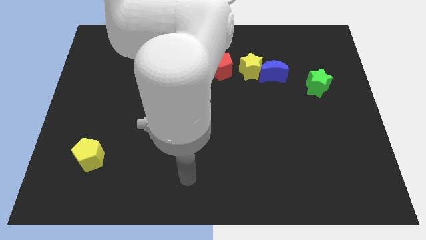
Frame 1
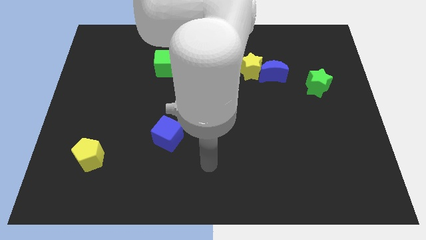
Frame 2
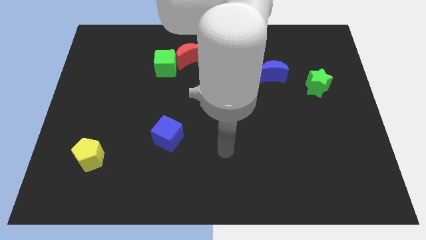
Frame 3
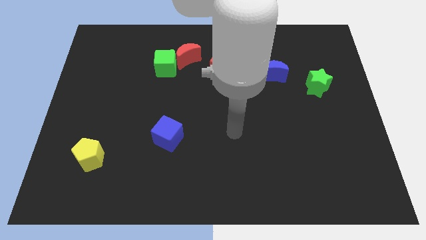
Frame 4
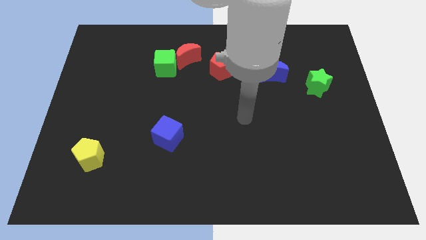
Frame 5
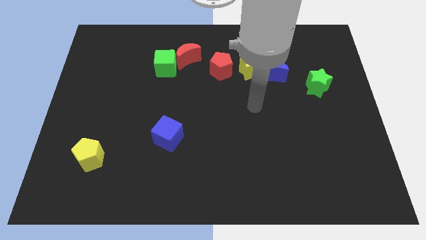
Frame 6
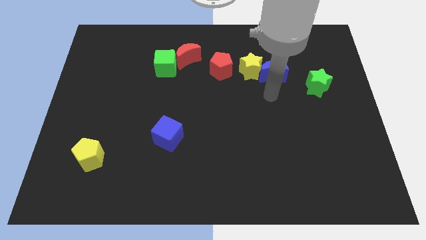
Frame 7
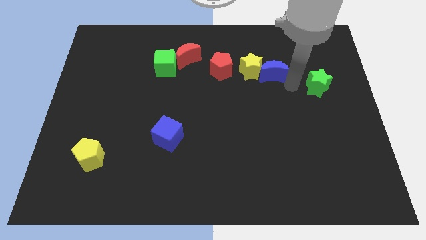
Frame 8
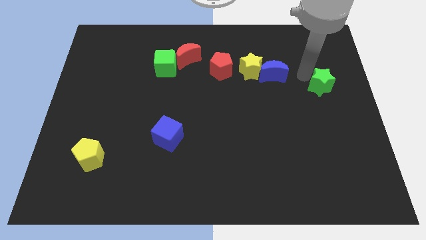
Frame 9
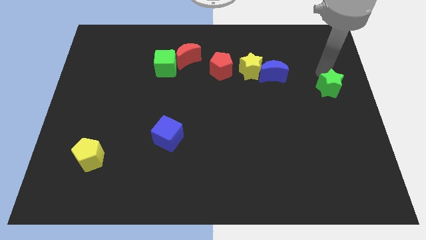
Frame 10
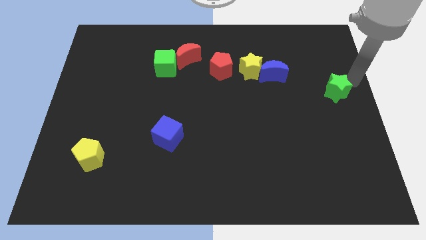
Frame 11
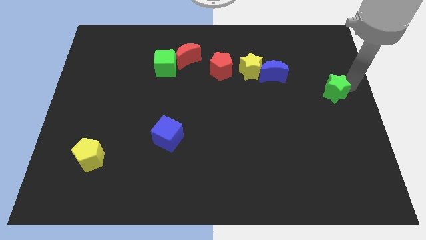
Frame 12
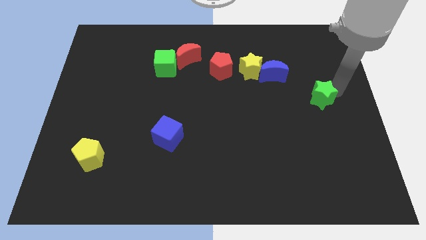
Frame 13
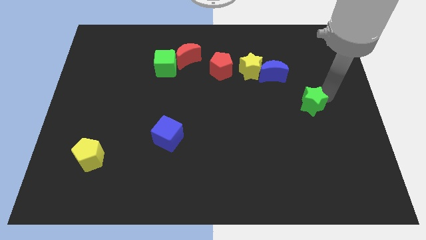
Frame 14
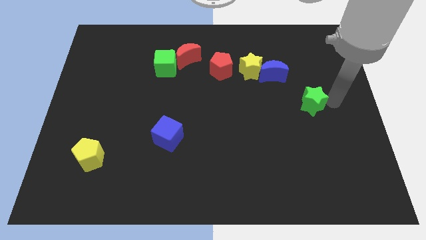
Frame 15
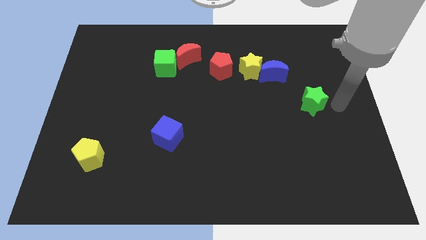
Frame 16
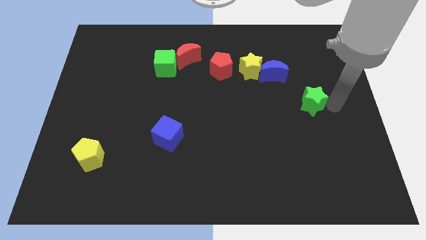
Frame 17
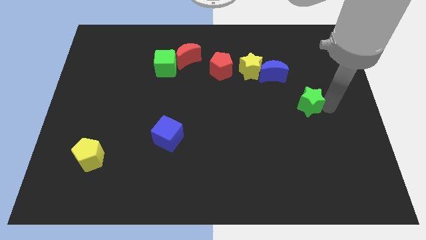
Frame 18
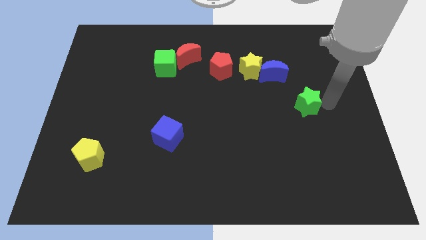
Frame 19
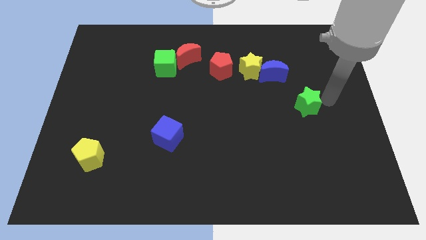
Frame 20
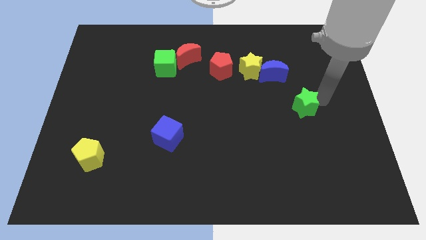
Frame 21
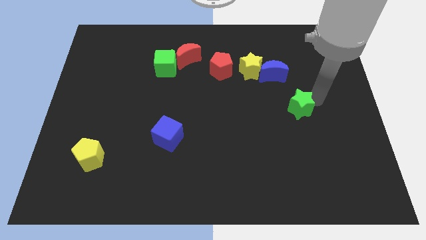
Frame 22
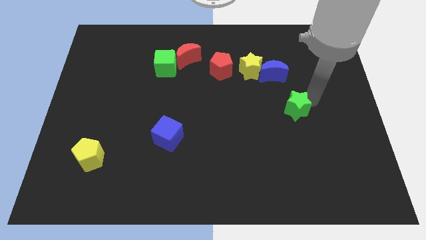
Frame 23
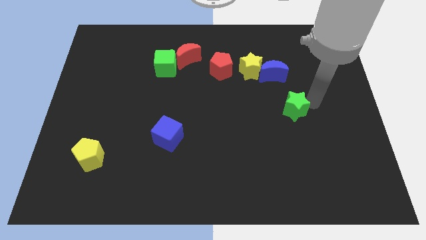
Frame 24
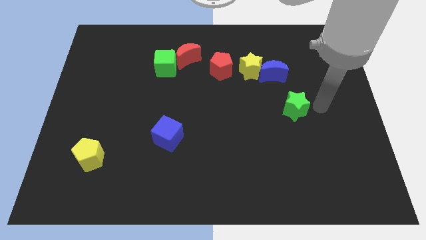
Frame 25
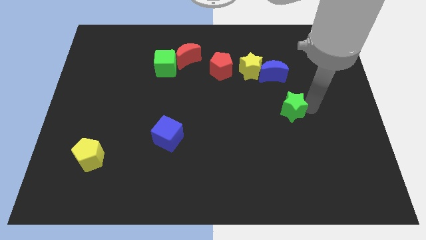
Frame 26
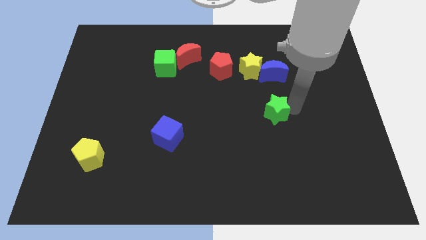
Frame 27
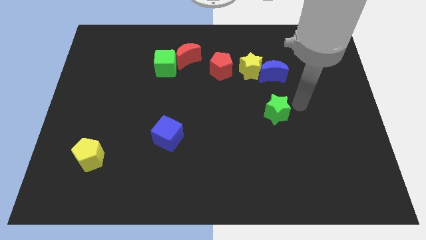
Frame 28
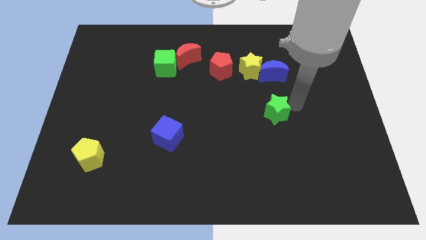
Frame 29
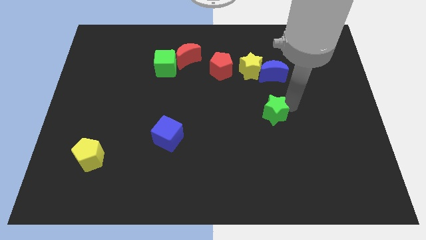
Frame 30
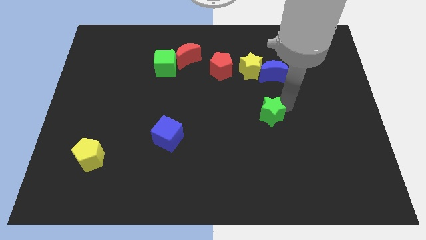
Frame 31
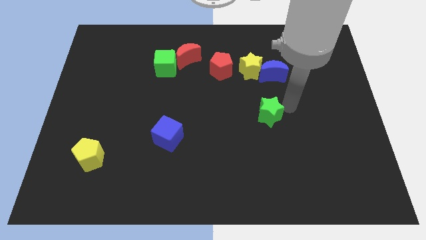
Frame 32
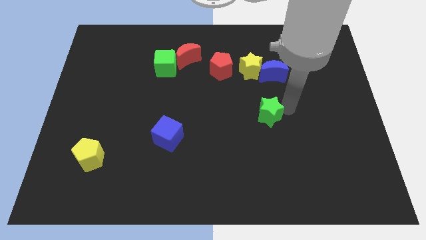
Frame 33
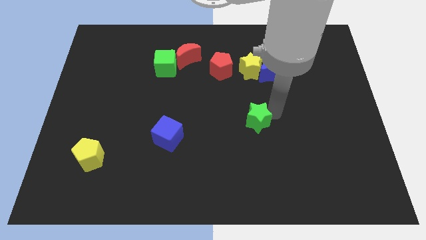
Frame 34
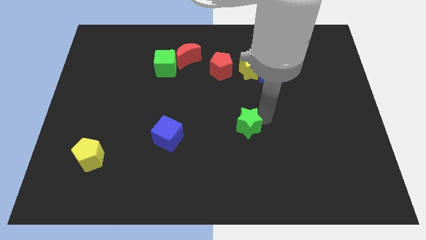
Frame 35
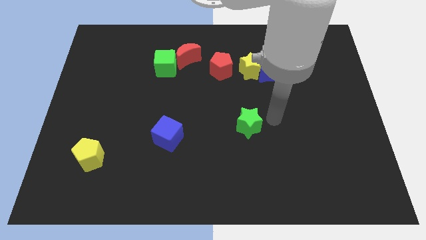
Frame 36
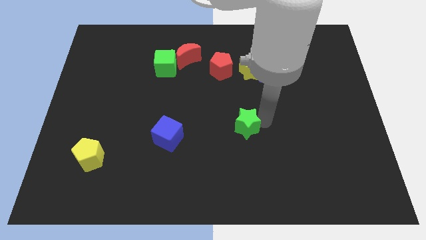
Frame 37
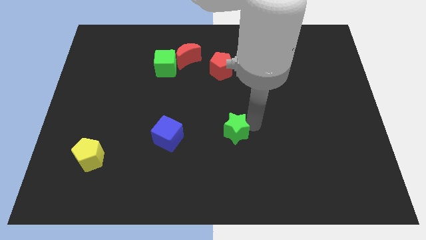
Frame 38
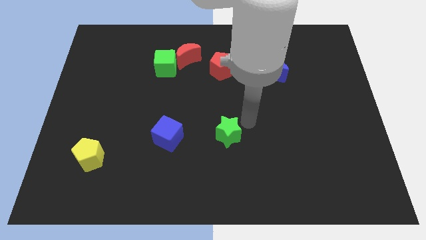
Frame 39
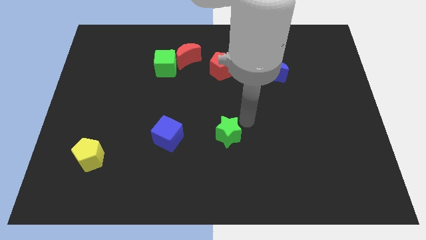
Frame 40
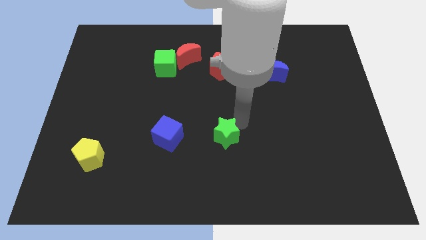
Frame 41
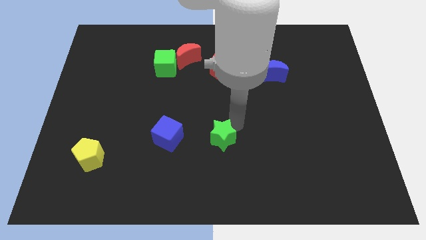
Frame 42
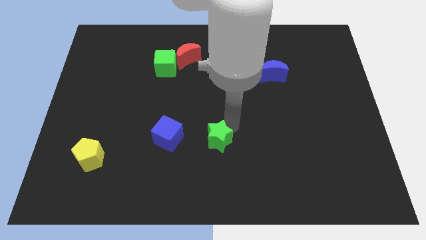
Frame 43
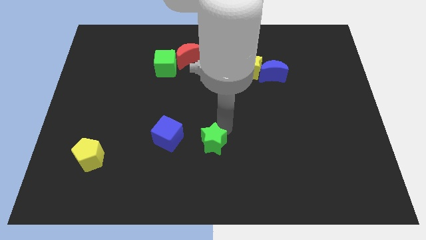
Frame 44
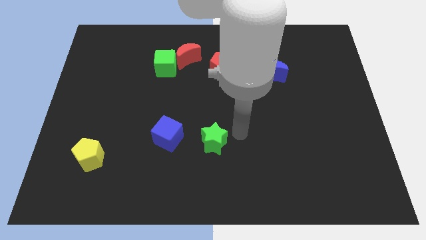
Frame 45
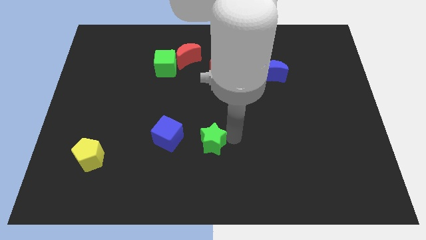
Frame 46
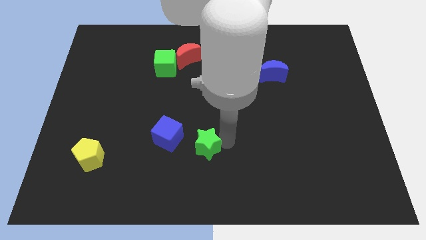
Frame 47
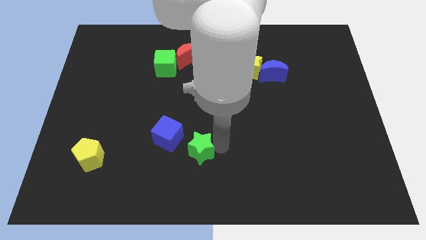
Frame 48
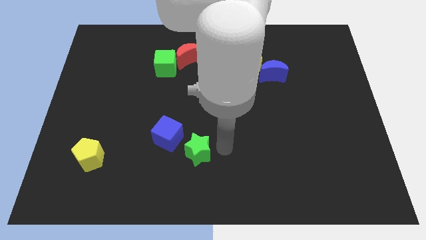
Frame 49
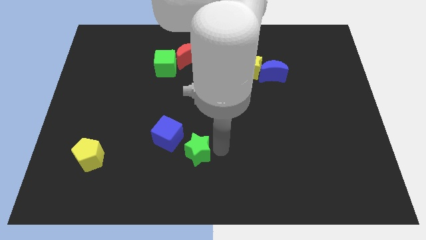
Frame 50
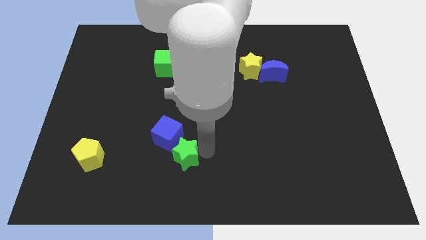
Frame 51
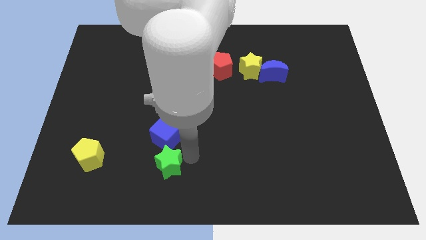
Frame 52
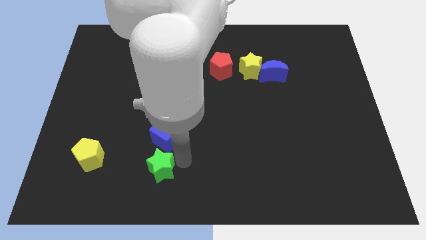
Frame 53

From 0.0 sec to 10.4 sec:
move the green star just right of the yellow pentagon

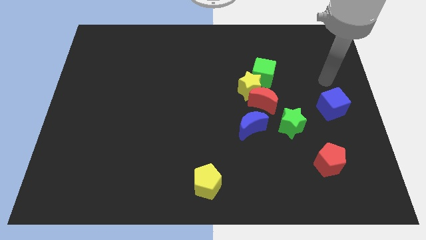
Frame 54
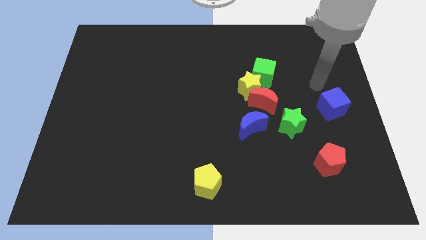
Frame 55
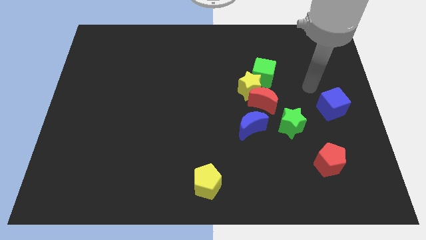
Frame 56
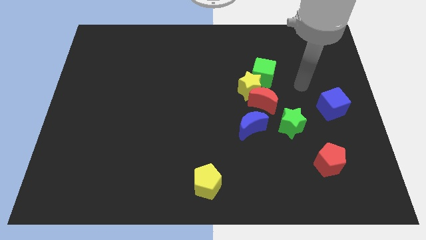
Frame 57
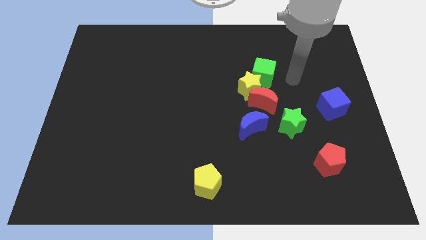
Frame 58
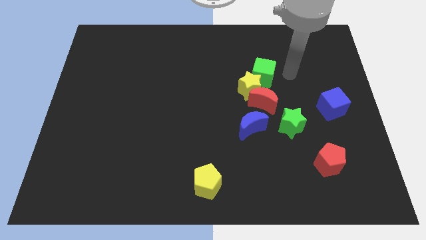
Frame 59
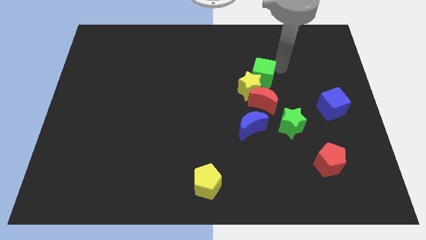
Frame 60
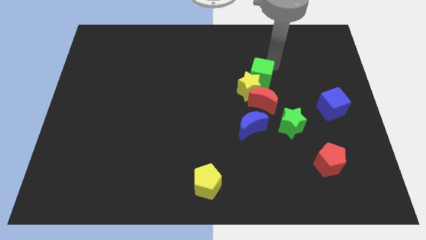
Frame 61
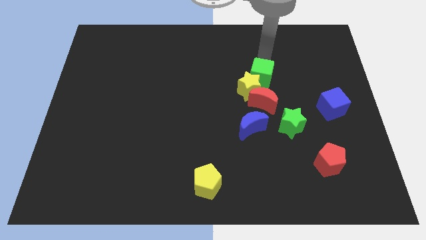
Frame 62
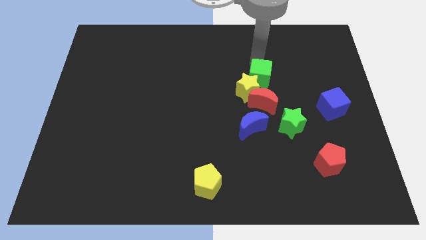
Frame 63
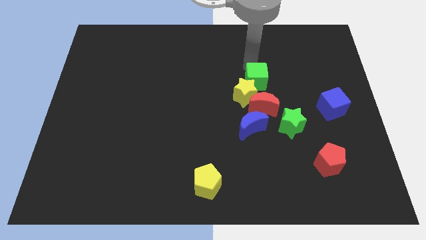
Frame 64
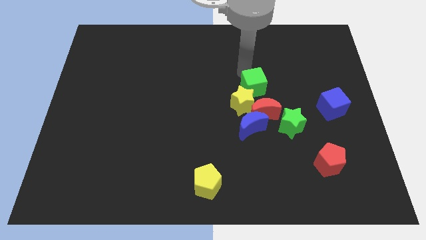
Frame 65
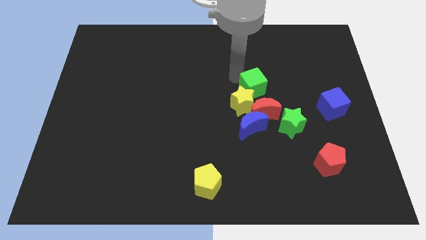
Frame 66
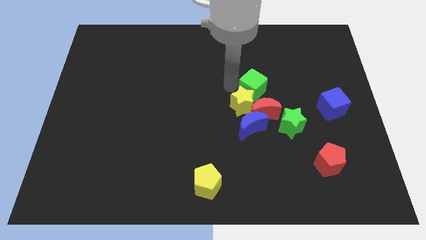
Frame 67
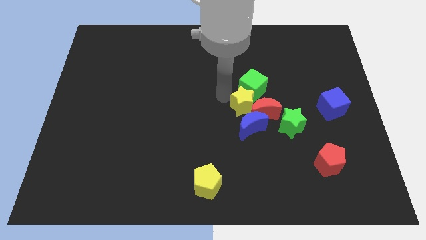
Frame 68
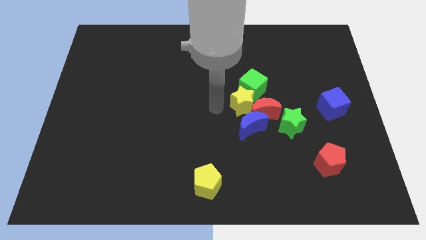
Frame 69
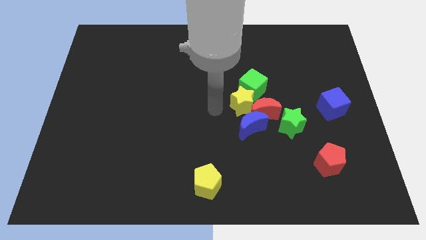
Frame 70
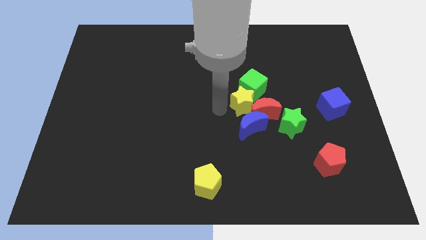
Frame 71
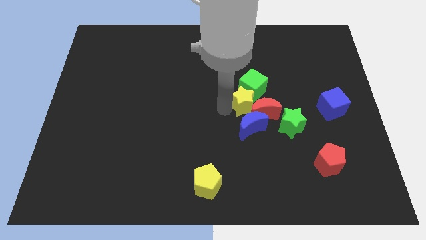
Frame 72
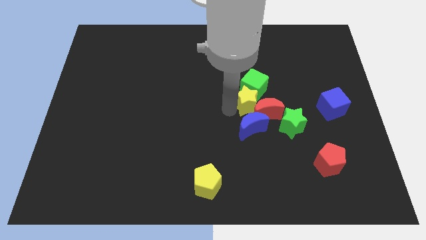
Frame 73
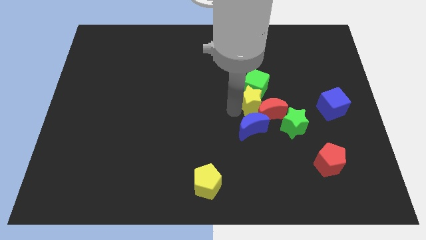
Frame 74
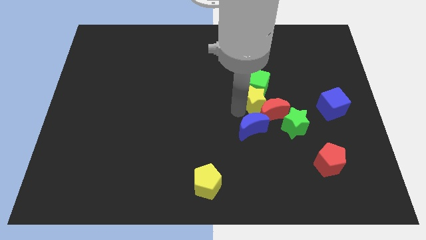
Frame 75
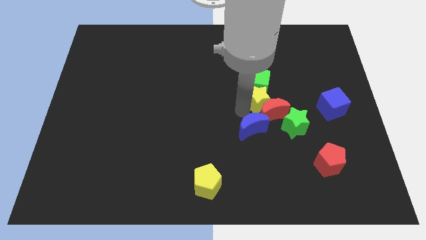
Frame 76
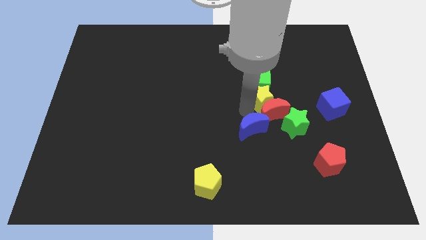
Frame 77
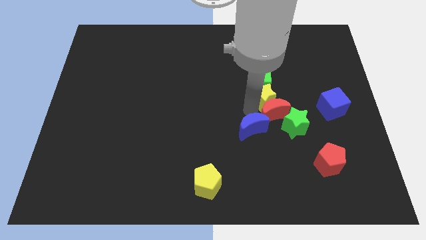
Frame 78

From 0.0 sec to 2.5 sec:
slide the yellow star to the top right side of the red moon
